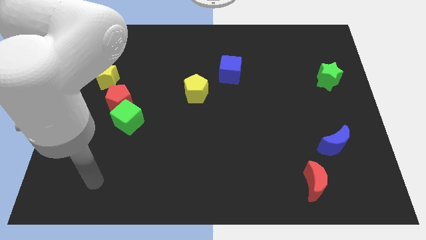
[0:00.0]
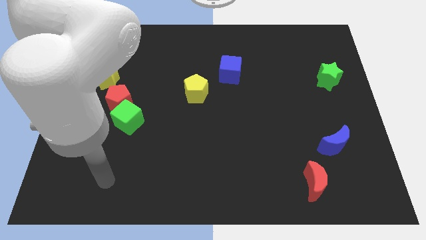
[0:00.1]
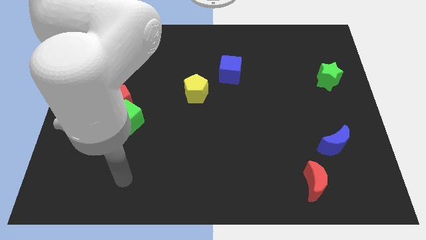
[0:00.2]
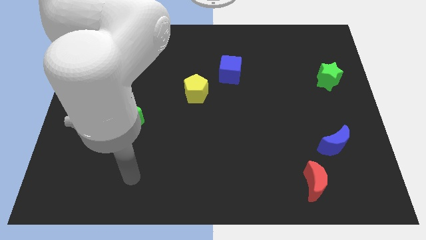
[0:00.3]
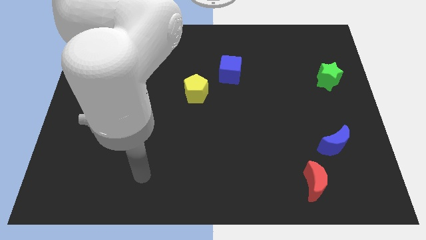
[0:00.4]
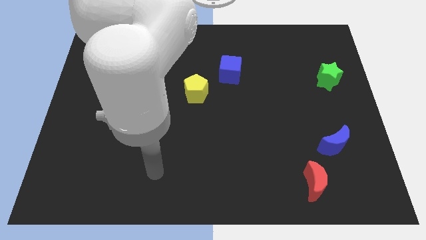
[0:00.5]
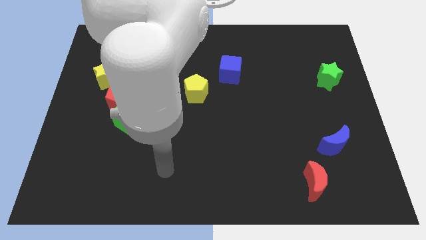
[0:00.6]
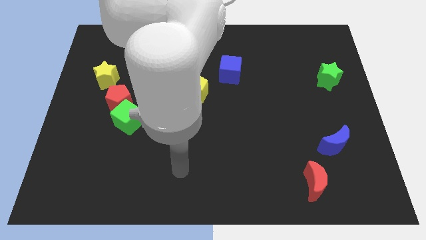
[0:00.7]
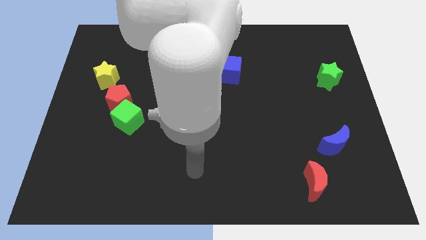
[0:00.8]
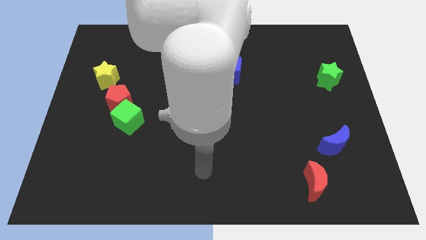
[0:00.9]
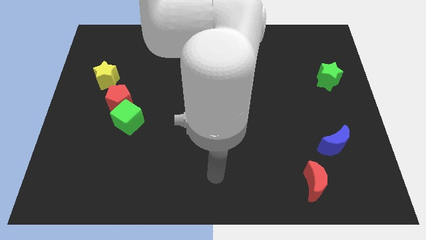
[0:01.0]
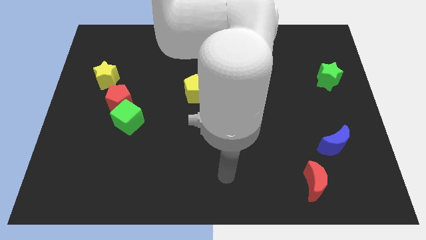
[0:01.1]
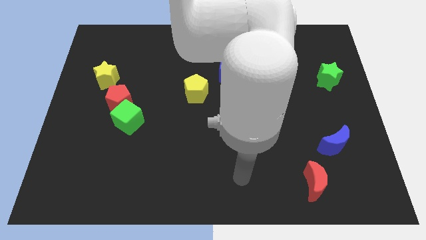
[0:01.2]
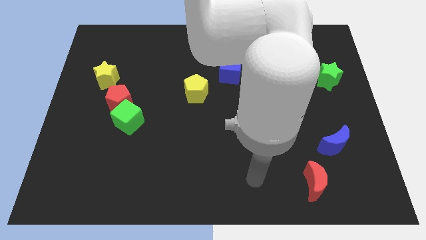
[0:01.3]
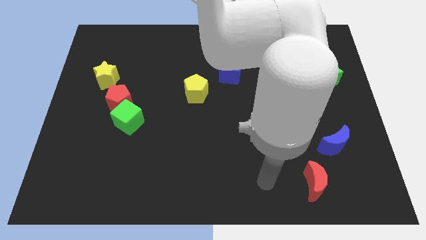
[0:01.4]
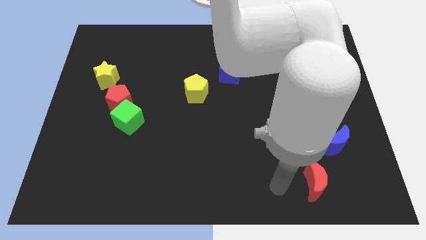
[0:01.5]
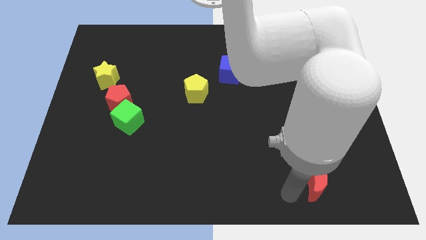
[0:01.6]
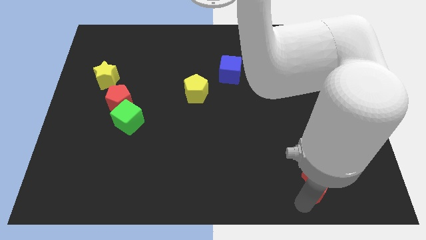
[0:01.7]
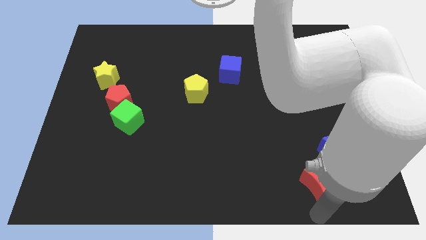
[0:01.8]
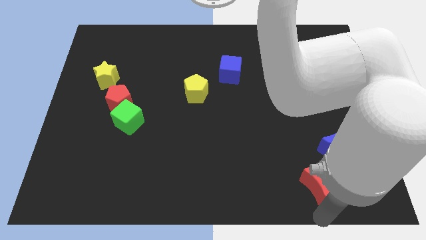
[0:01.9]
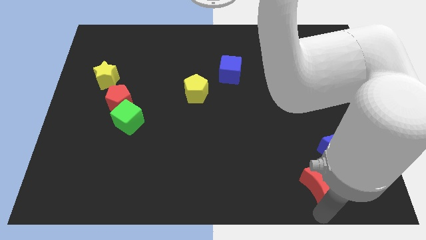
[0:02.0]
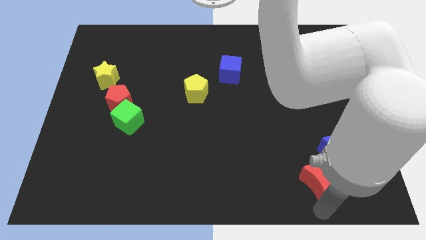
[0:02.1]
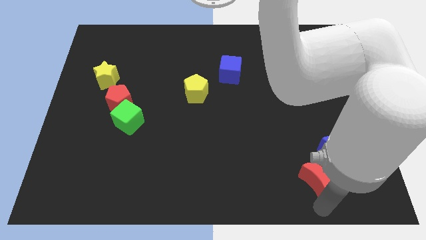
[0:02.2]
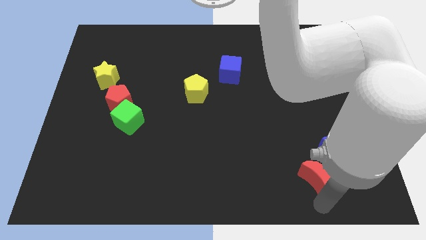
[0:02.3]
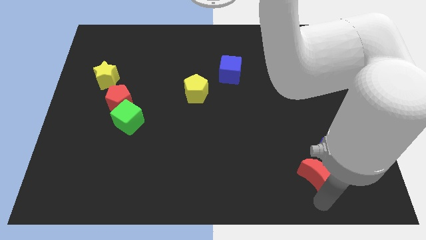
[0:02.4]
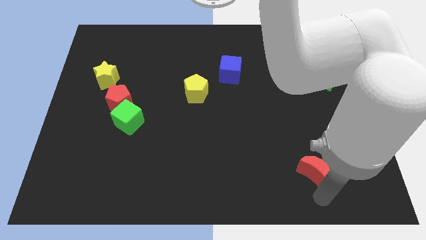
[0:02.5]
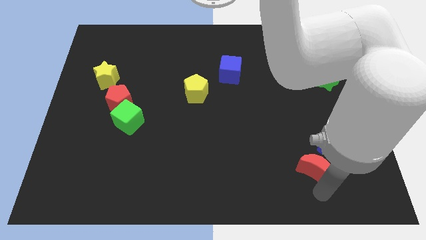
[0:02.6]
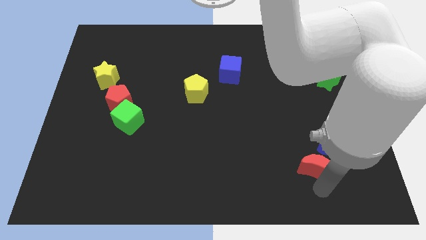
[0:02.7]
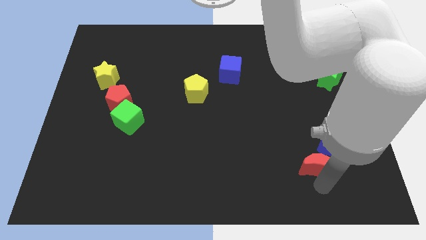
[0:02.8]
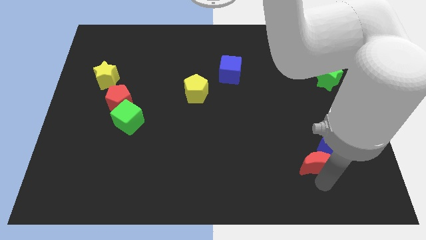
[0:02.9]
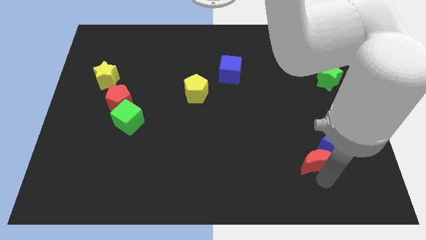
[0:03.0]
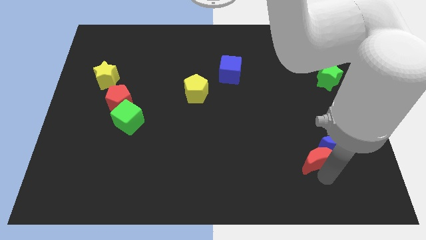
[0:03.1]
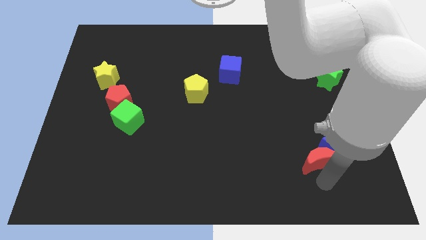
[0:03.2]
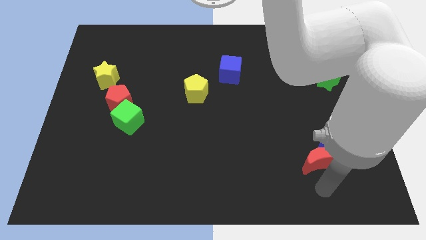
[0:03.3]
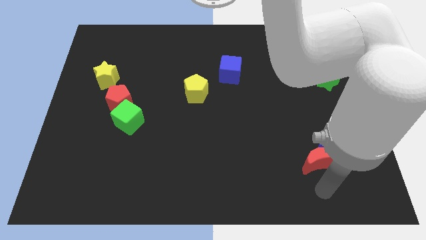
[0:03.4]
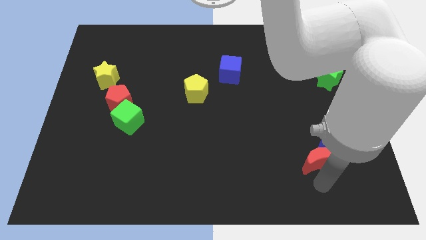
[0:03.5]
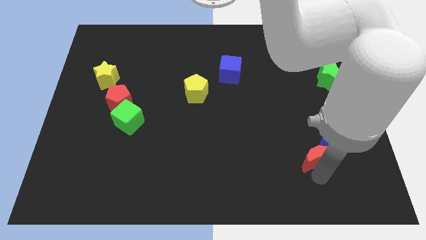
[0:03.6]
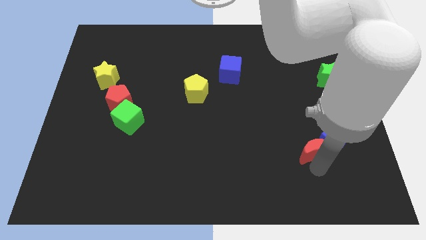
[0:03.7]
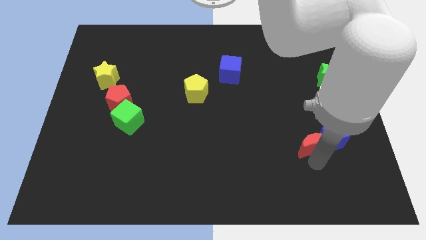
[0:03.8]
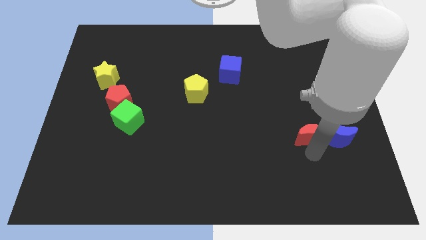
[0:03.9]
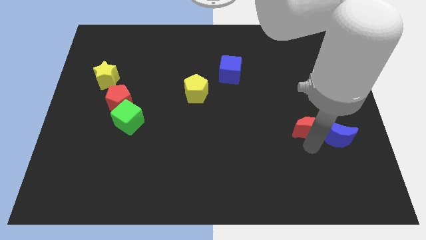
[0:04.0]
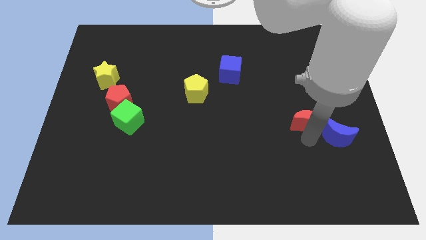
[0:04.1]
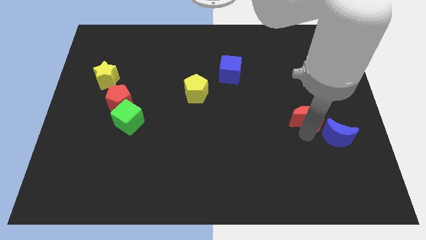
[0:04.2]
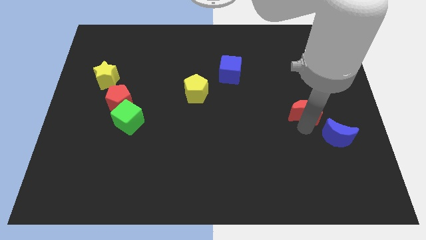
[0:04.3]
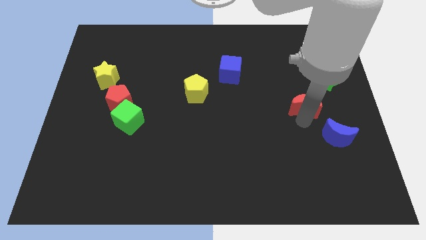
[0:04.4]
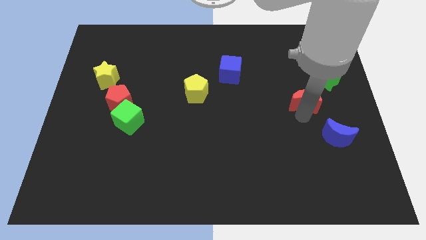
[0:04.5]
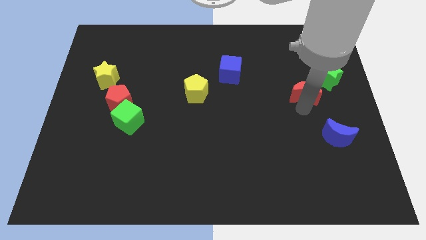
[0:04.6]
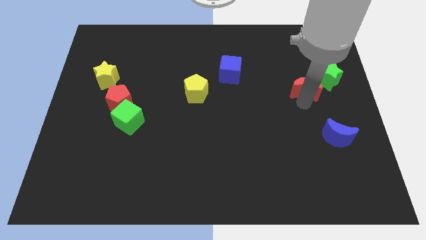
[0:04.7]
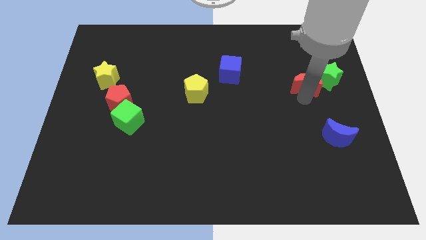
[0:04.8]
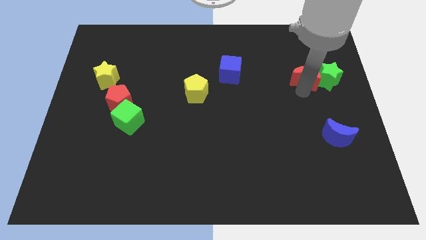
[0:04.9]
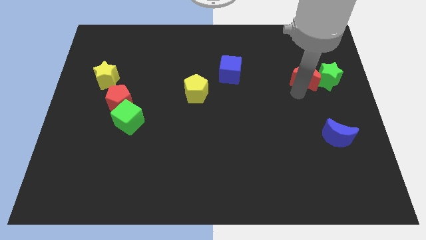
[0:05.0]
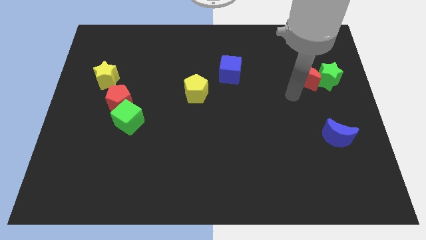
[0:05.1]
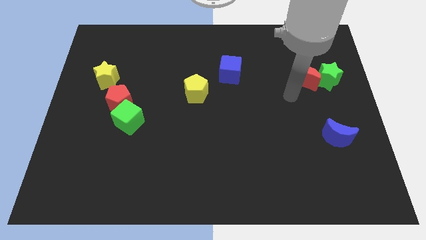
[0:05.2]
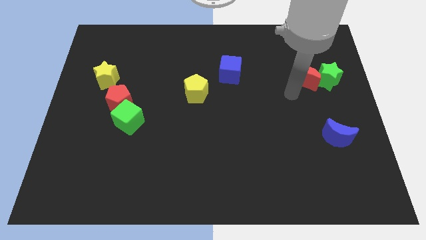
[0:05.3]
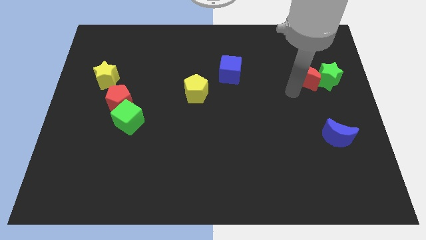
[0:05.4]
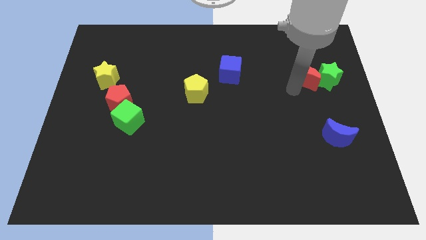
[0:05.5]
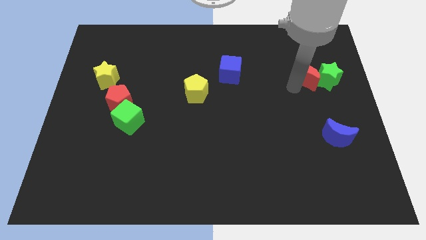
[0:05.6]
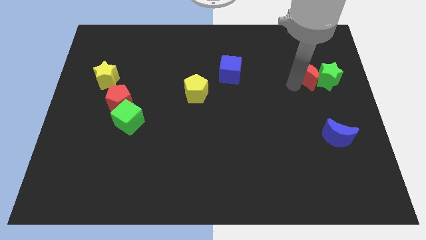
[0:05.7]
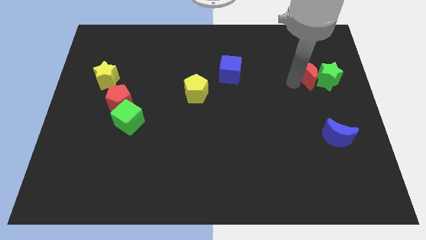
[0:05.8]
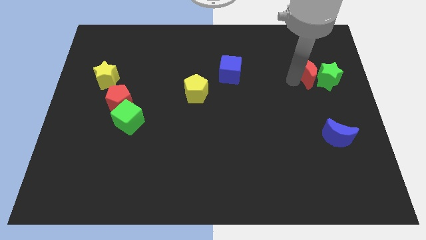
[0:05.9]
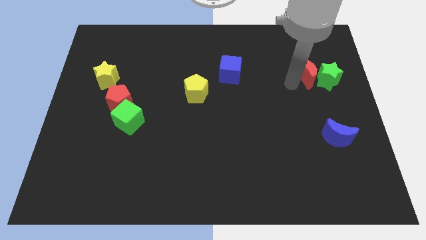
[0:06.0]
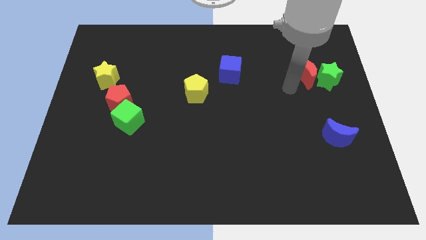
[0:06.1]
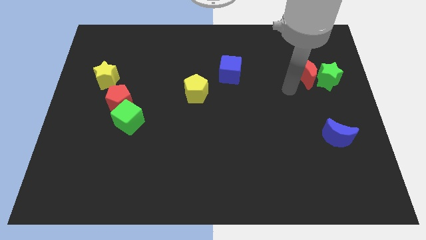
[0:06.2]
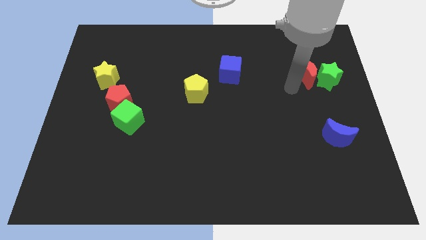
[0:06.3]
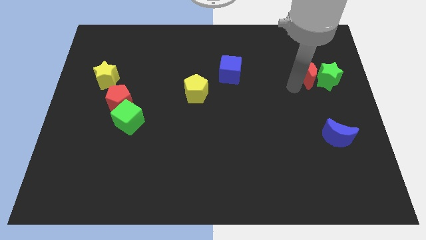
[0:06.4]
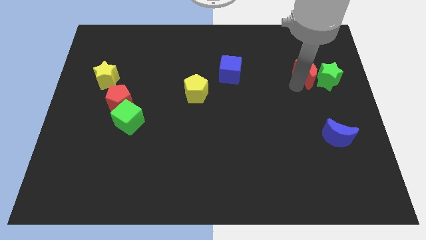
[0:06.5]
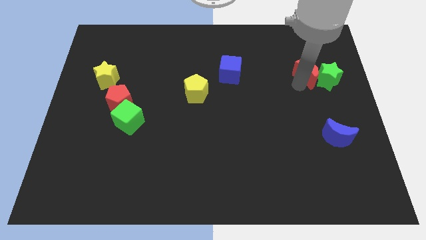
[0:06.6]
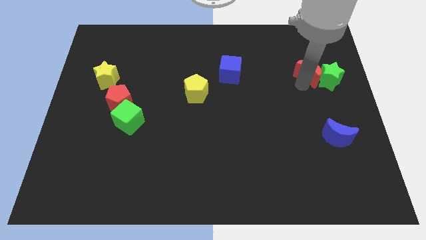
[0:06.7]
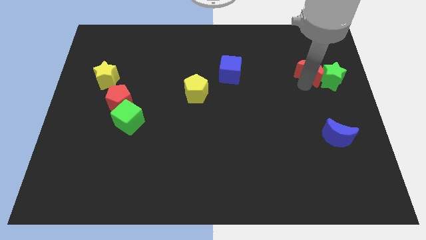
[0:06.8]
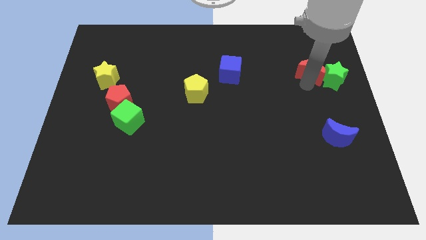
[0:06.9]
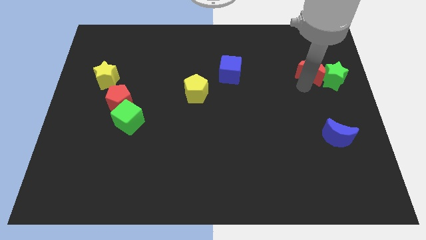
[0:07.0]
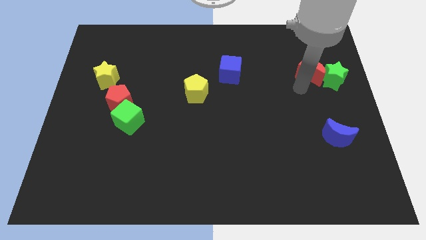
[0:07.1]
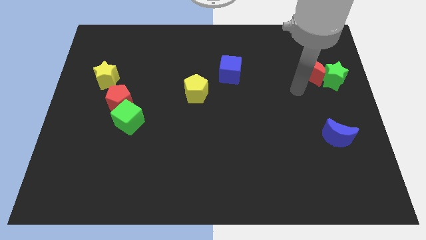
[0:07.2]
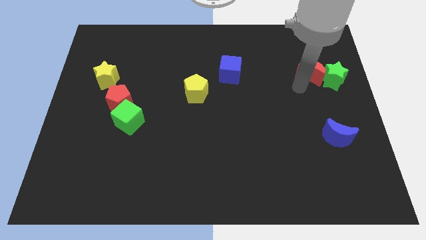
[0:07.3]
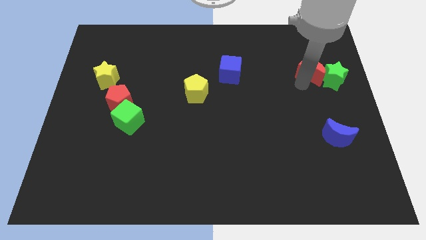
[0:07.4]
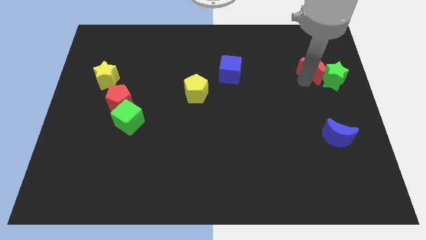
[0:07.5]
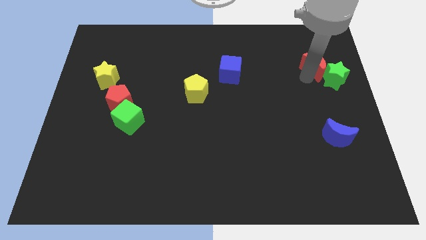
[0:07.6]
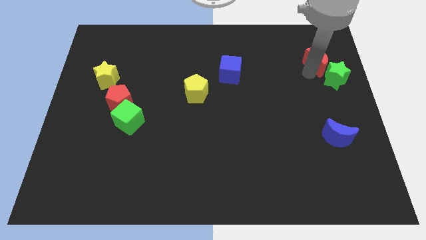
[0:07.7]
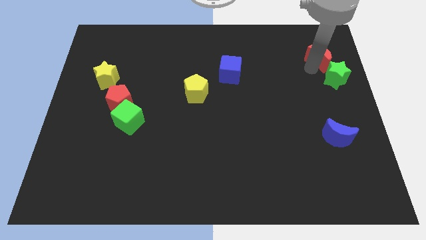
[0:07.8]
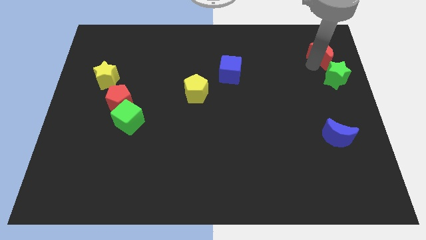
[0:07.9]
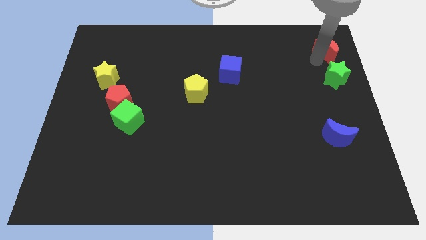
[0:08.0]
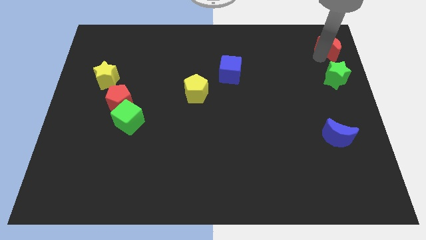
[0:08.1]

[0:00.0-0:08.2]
put the red moon to the top right of the board
